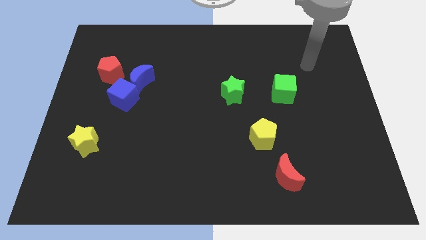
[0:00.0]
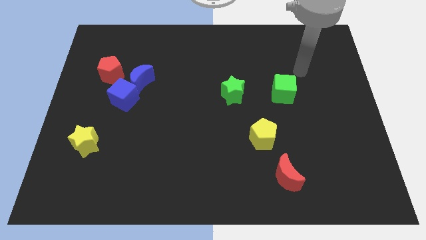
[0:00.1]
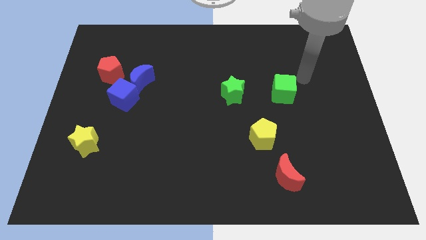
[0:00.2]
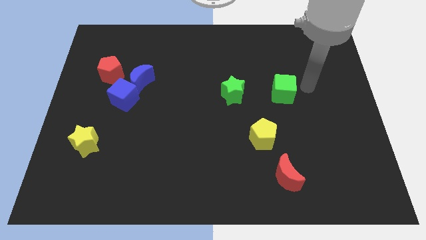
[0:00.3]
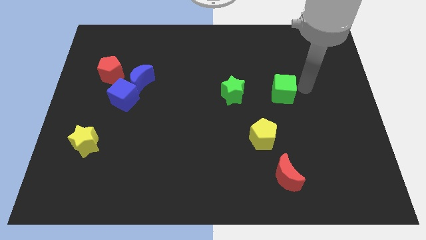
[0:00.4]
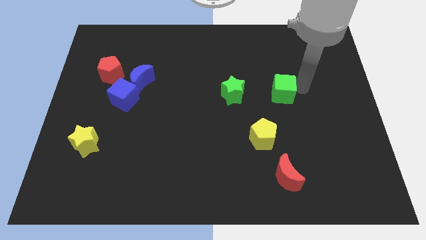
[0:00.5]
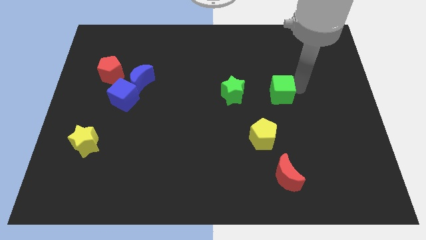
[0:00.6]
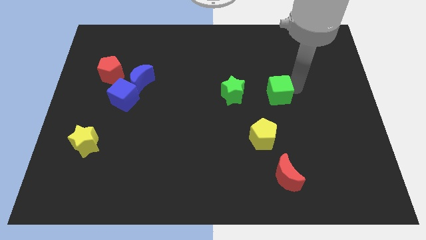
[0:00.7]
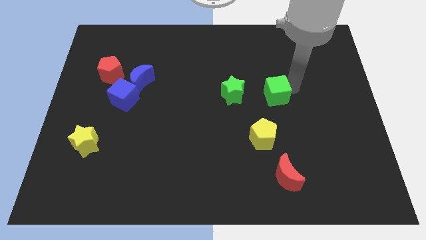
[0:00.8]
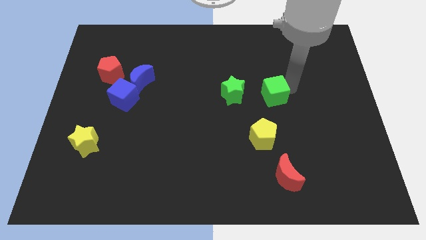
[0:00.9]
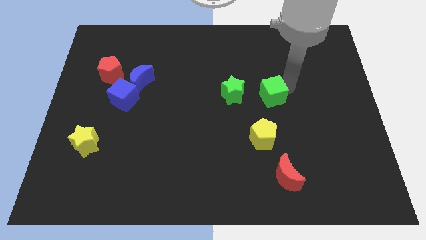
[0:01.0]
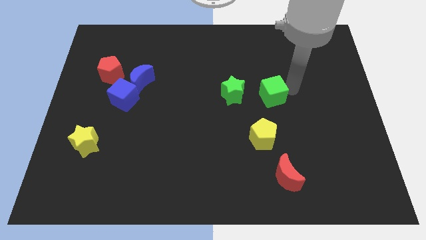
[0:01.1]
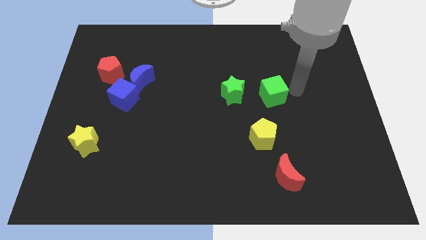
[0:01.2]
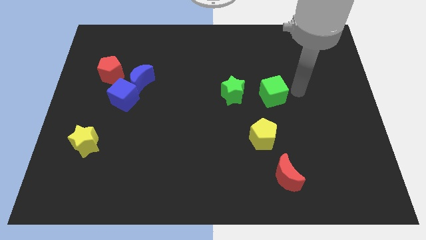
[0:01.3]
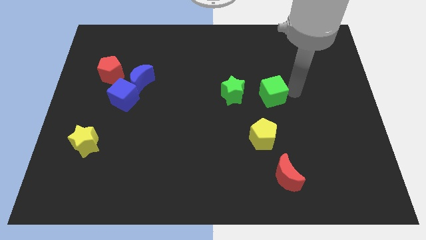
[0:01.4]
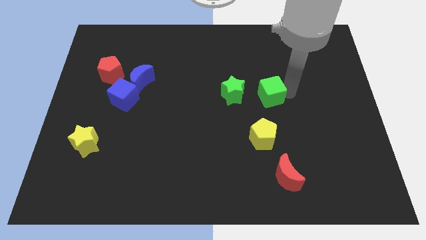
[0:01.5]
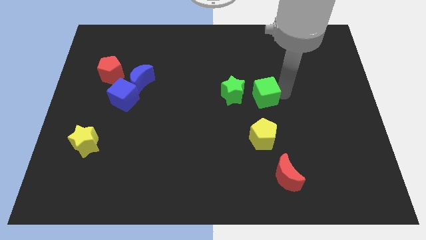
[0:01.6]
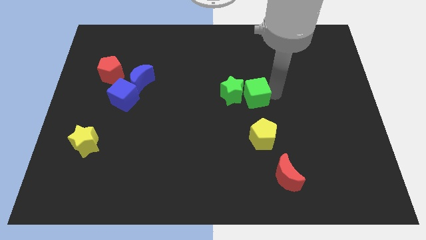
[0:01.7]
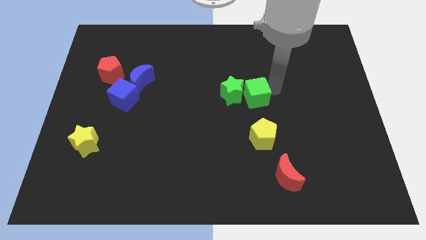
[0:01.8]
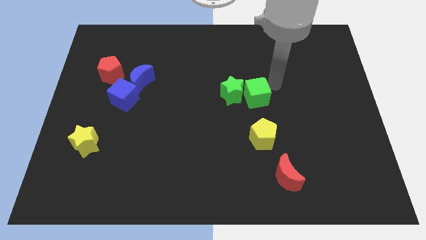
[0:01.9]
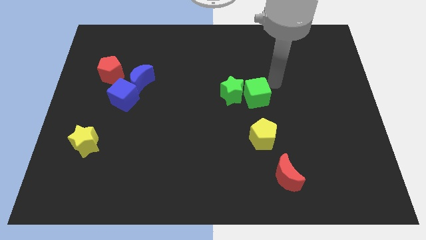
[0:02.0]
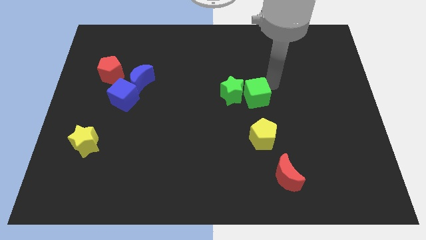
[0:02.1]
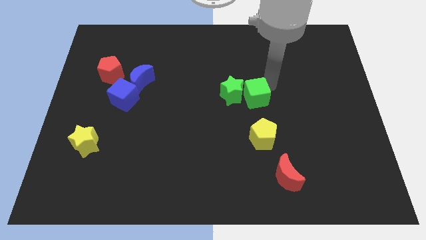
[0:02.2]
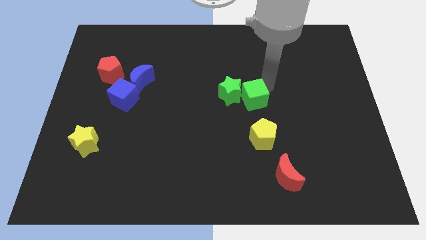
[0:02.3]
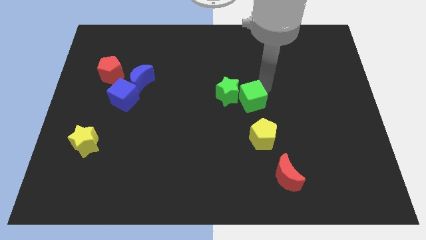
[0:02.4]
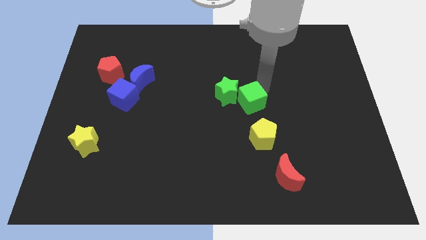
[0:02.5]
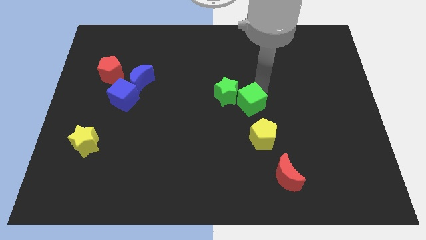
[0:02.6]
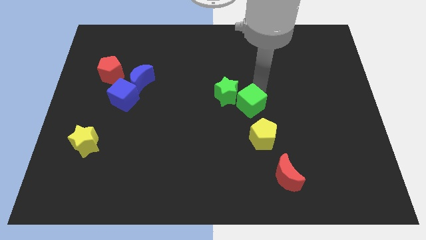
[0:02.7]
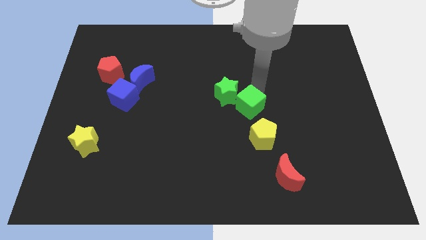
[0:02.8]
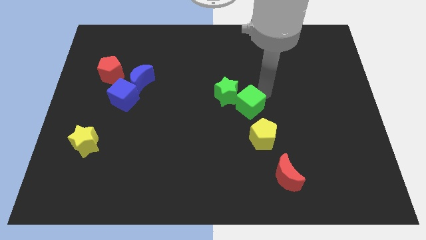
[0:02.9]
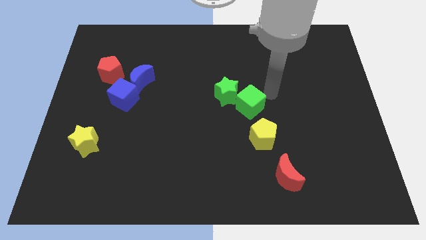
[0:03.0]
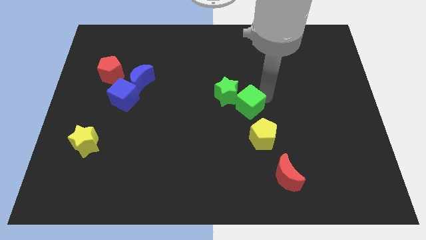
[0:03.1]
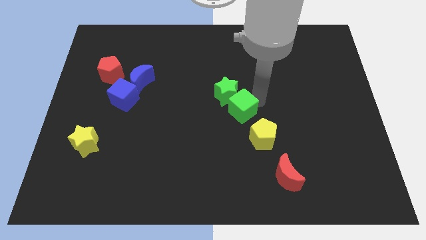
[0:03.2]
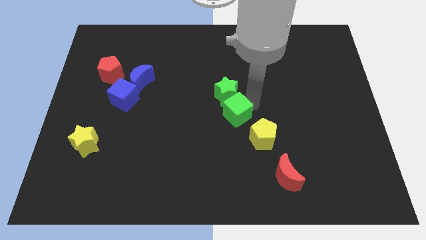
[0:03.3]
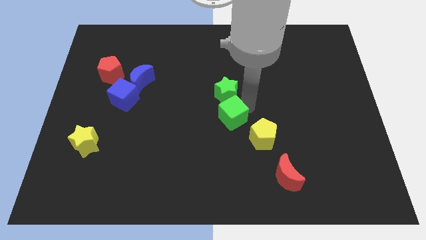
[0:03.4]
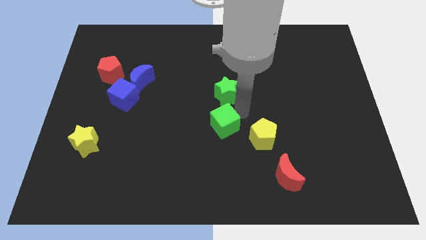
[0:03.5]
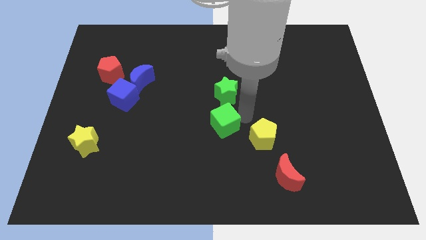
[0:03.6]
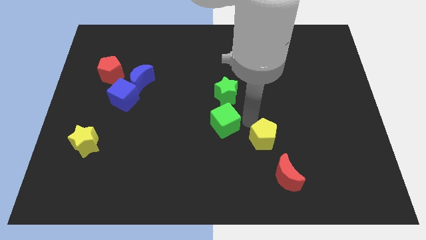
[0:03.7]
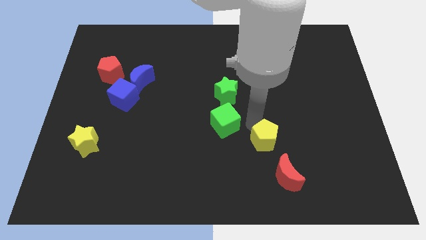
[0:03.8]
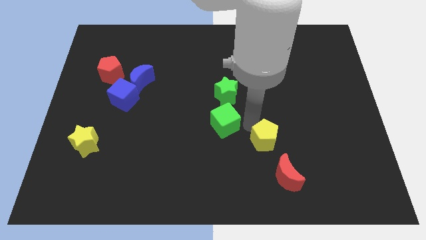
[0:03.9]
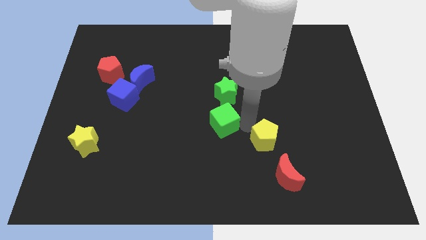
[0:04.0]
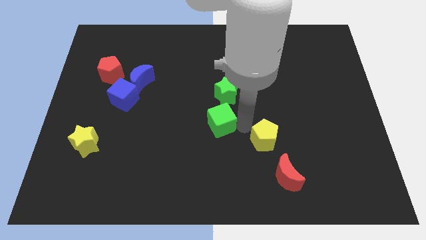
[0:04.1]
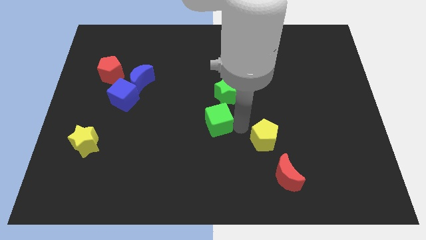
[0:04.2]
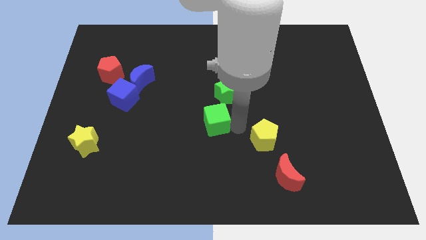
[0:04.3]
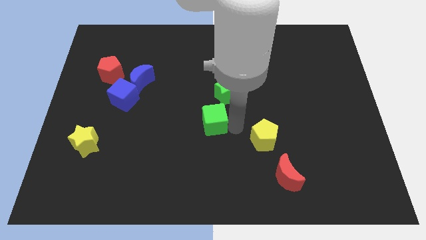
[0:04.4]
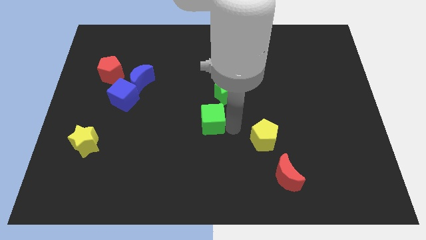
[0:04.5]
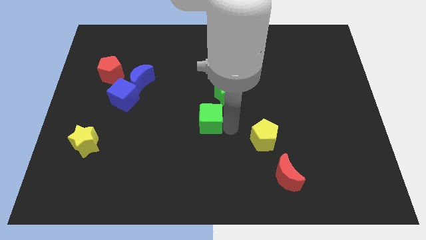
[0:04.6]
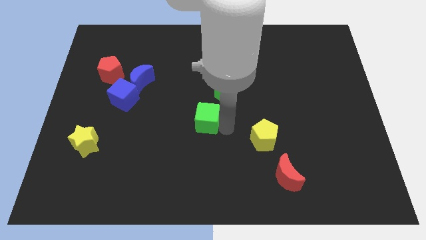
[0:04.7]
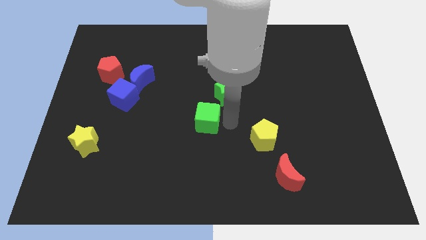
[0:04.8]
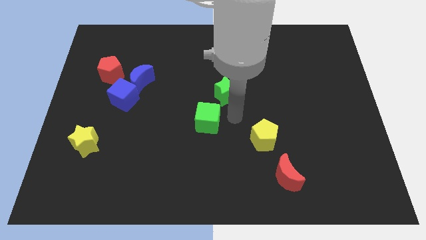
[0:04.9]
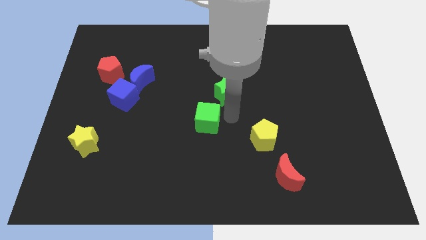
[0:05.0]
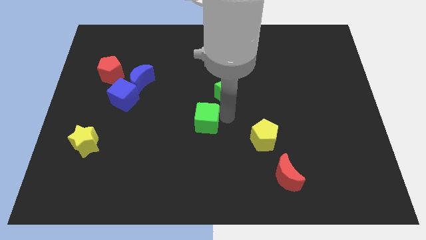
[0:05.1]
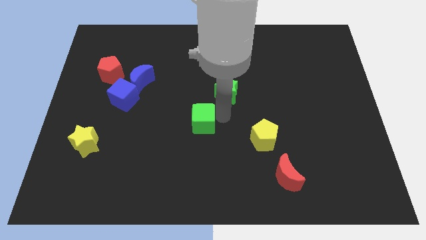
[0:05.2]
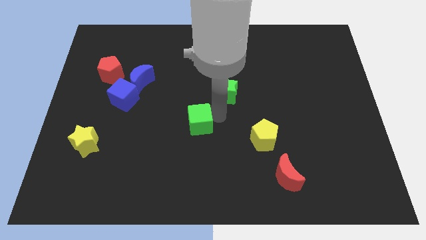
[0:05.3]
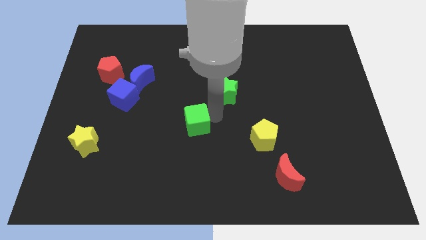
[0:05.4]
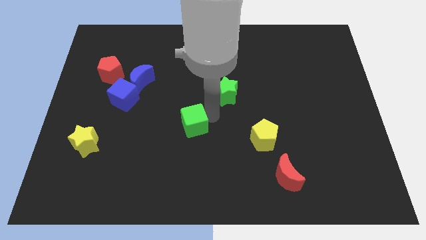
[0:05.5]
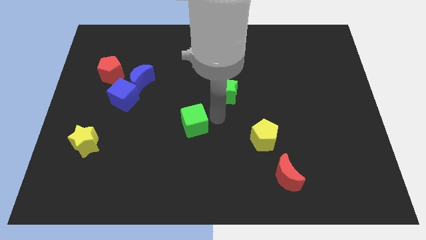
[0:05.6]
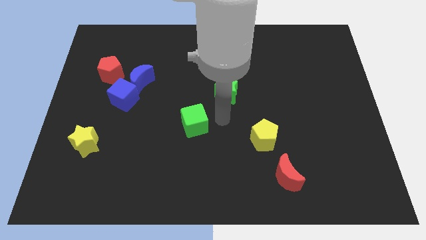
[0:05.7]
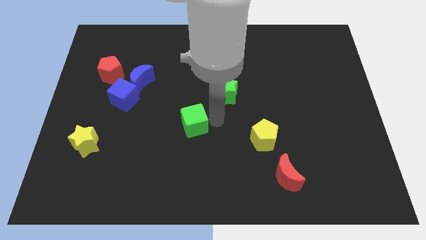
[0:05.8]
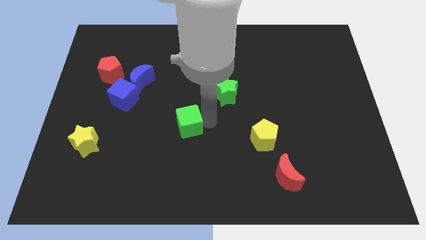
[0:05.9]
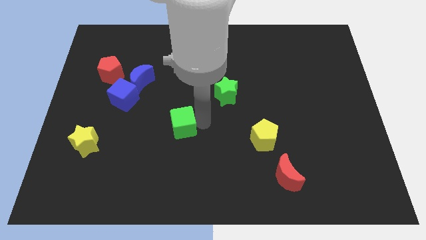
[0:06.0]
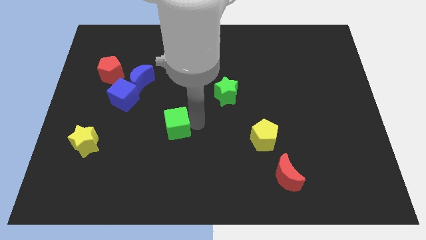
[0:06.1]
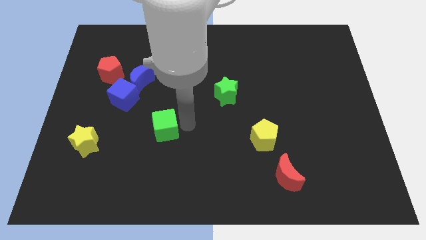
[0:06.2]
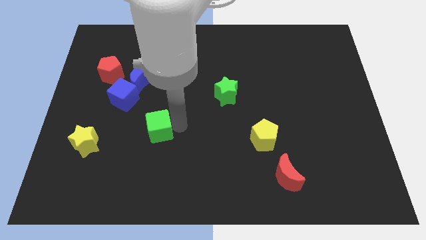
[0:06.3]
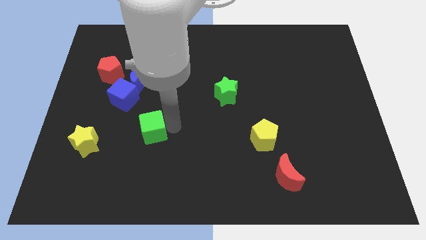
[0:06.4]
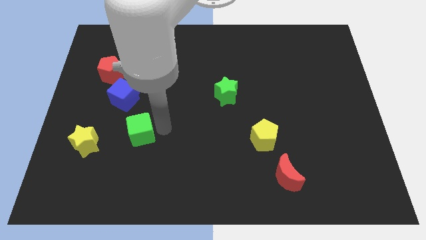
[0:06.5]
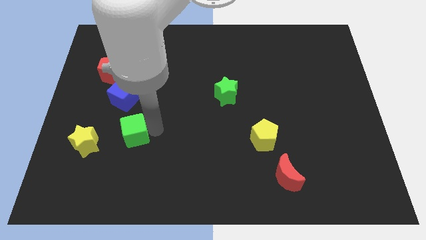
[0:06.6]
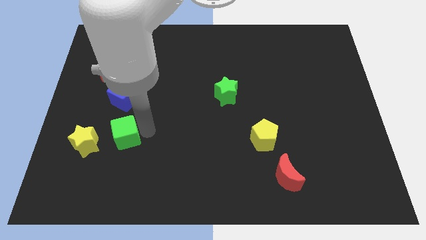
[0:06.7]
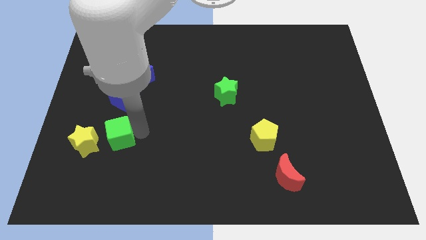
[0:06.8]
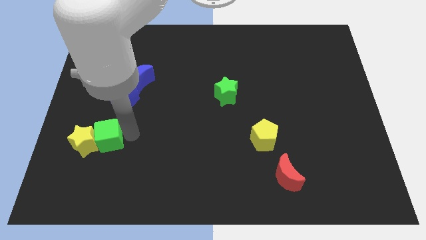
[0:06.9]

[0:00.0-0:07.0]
push the green cube to the yellow star
